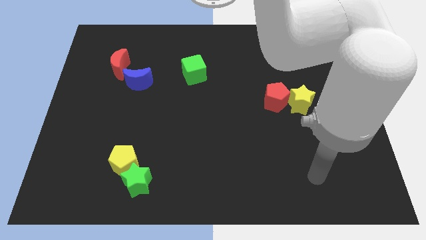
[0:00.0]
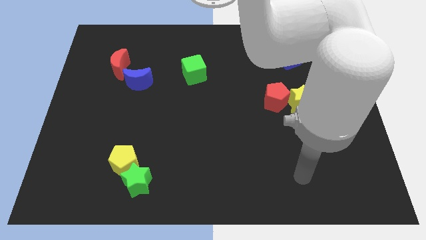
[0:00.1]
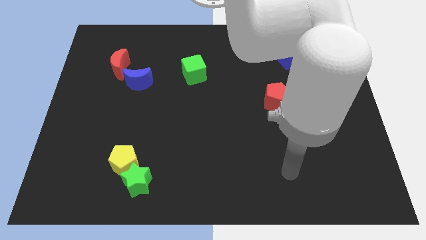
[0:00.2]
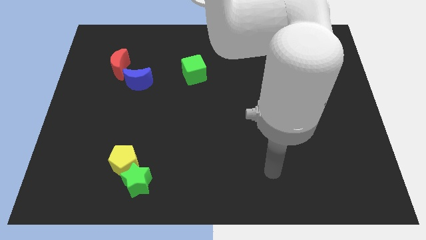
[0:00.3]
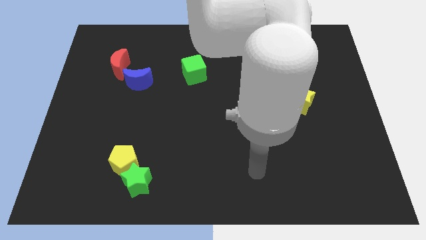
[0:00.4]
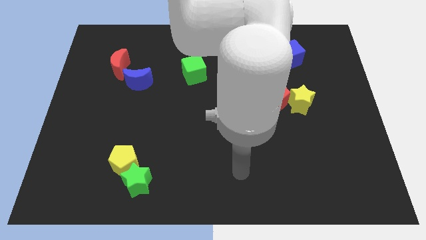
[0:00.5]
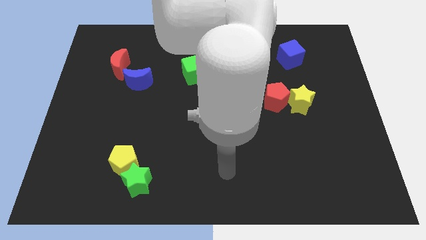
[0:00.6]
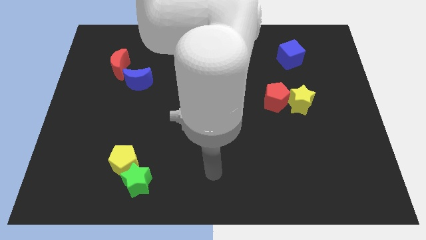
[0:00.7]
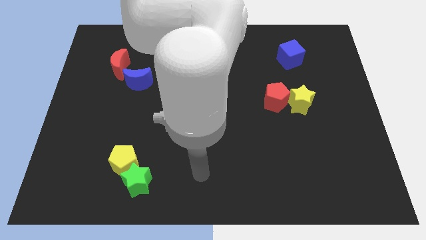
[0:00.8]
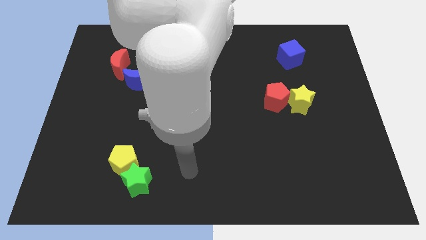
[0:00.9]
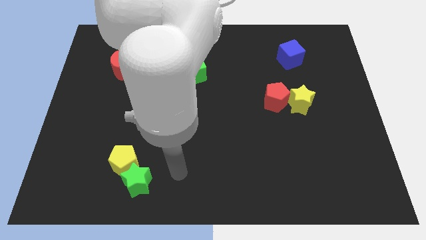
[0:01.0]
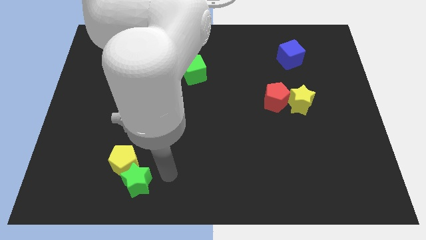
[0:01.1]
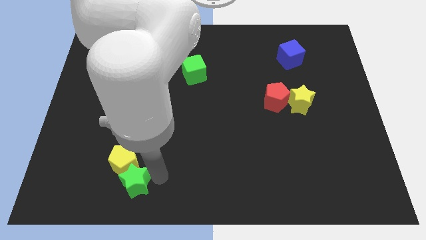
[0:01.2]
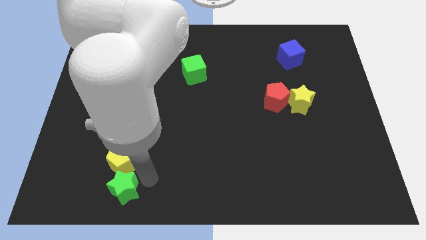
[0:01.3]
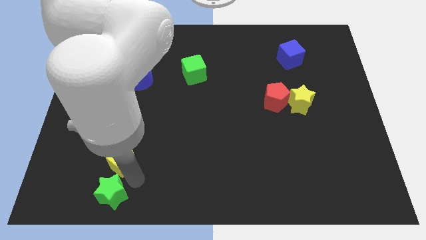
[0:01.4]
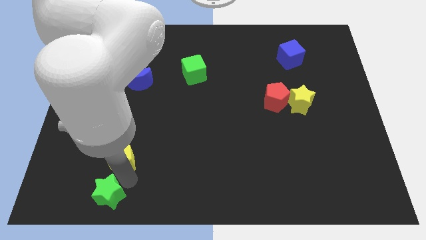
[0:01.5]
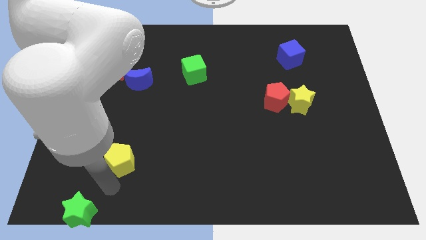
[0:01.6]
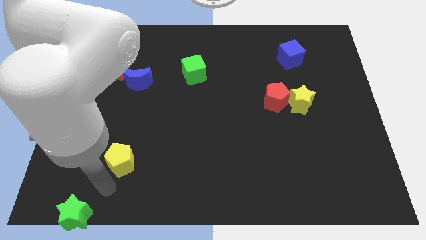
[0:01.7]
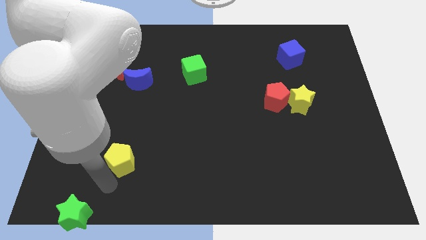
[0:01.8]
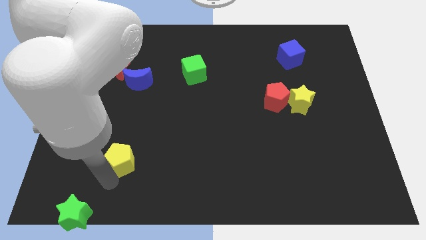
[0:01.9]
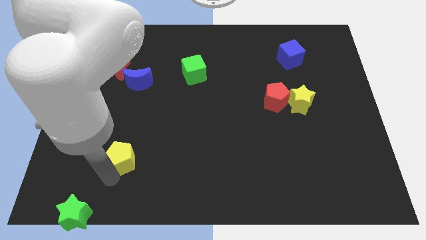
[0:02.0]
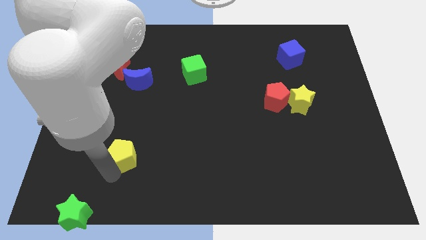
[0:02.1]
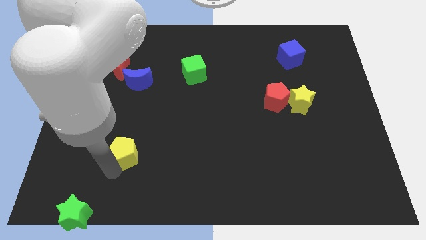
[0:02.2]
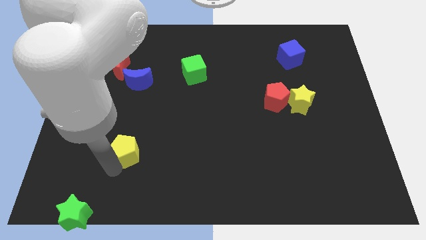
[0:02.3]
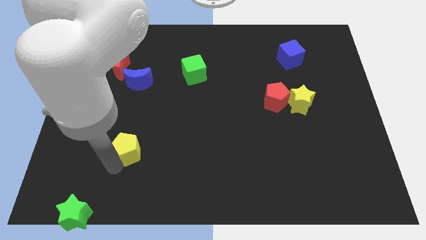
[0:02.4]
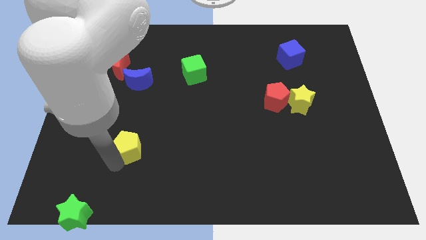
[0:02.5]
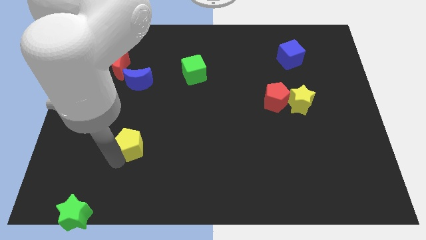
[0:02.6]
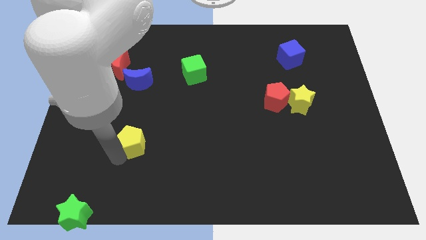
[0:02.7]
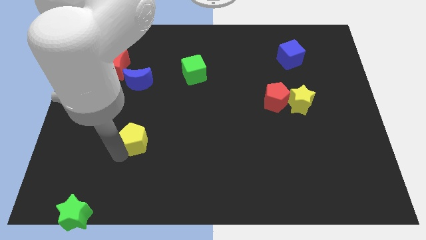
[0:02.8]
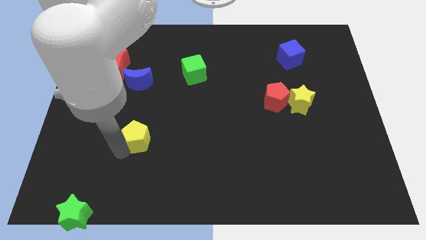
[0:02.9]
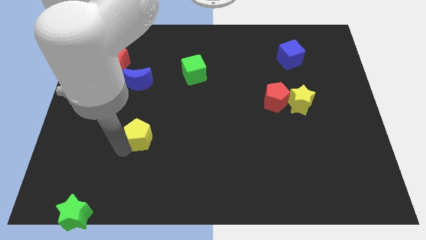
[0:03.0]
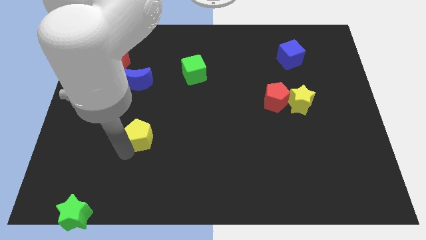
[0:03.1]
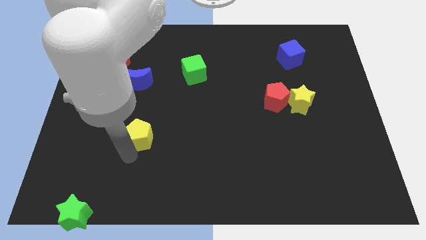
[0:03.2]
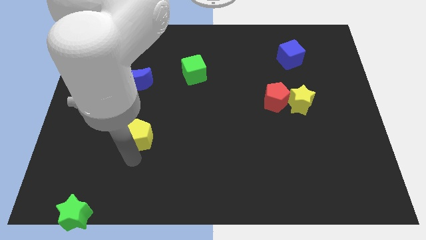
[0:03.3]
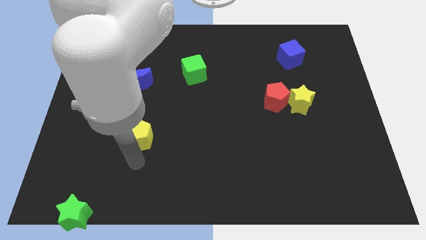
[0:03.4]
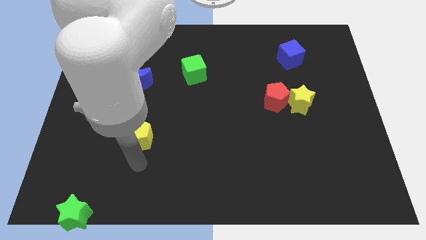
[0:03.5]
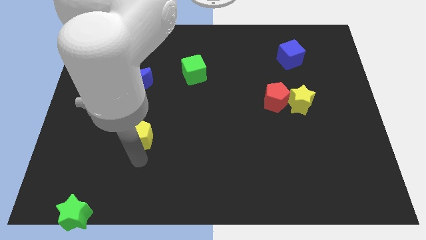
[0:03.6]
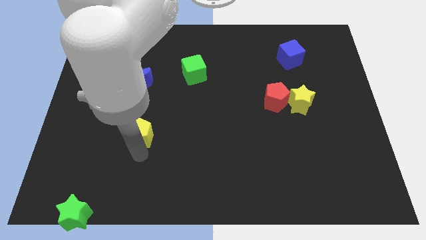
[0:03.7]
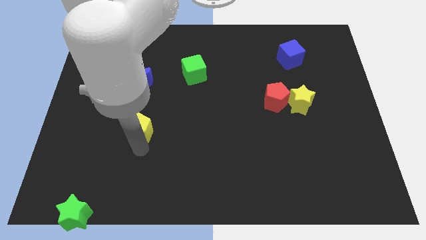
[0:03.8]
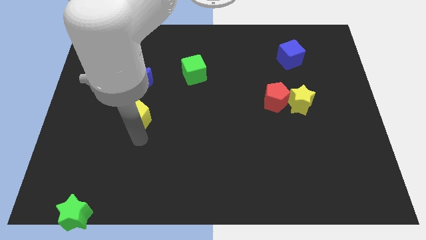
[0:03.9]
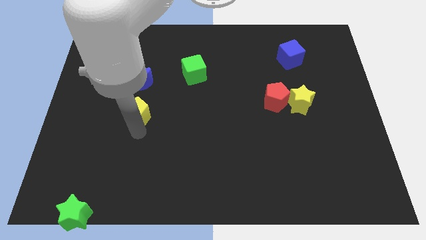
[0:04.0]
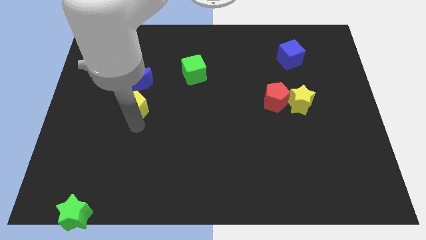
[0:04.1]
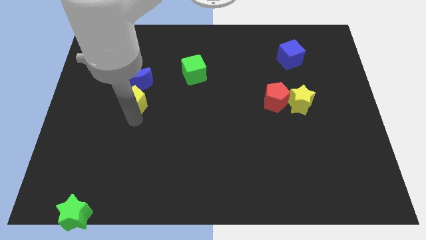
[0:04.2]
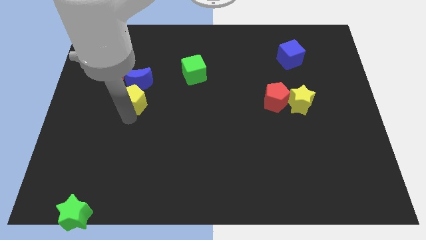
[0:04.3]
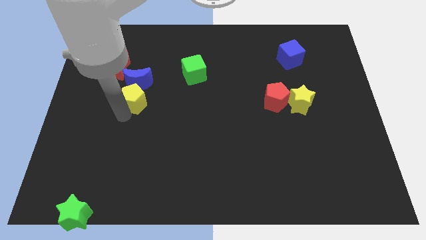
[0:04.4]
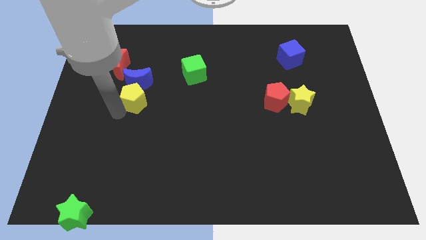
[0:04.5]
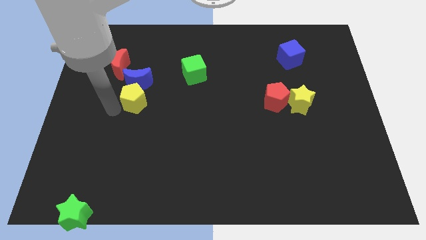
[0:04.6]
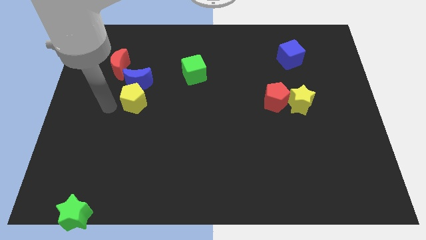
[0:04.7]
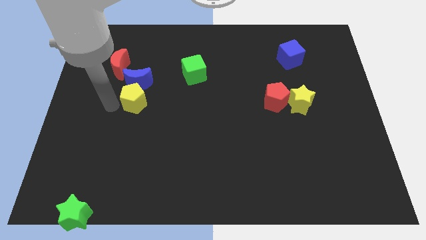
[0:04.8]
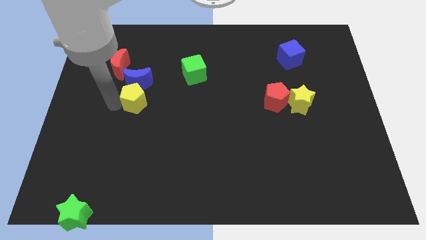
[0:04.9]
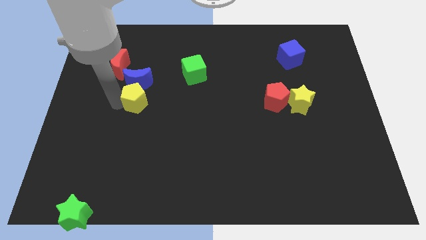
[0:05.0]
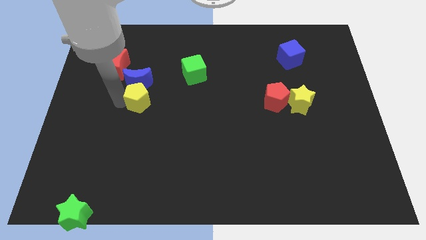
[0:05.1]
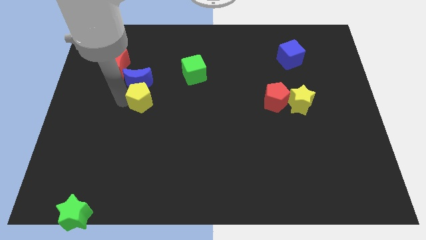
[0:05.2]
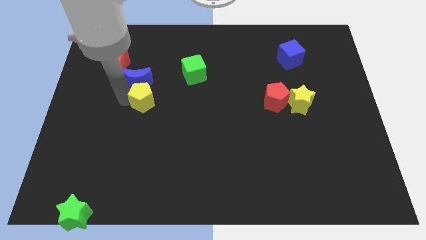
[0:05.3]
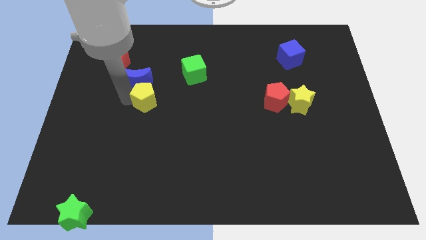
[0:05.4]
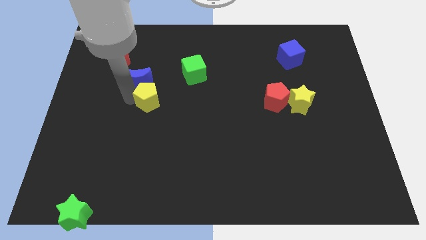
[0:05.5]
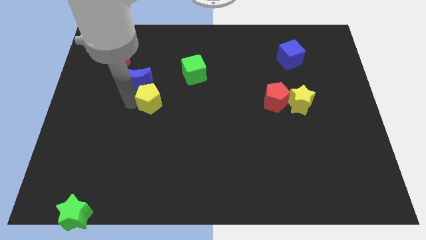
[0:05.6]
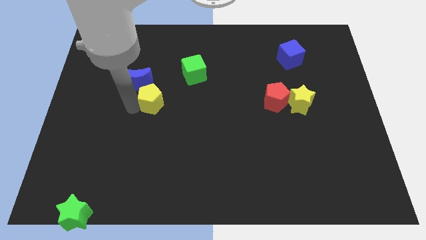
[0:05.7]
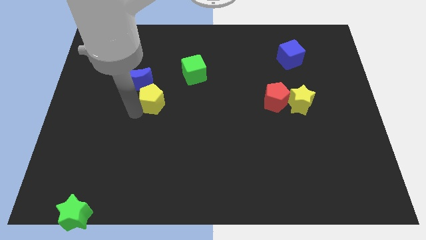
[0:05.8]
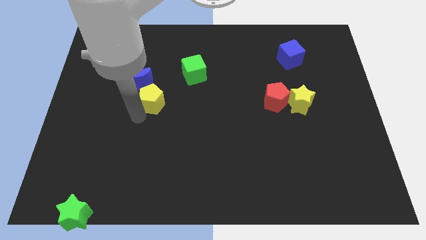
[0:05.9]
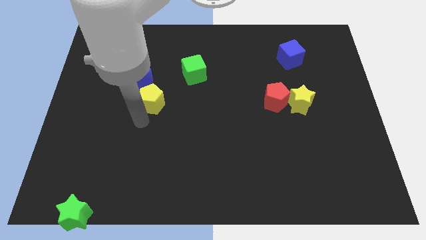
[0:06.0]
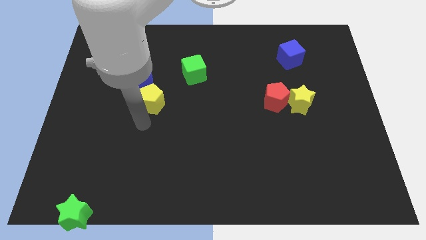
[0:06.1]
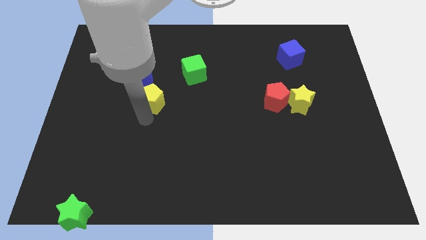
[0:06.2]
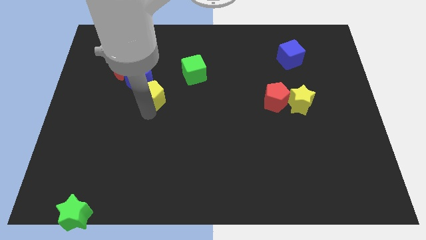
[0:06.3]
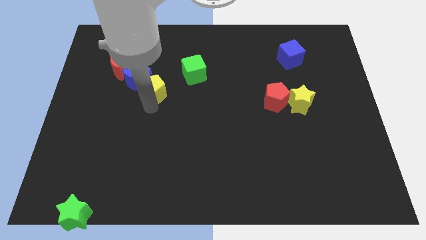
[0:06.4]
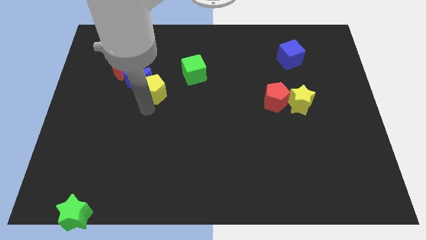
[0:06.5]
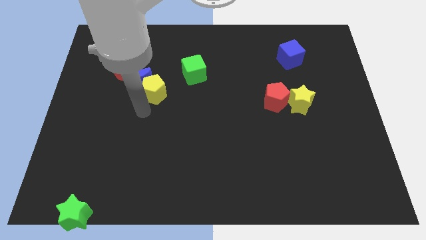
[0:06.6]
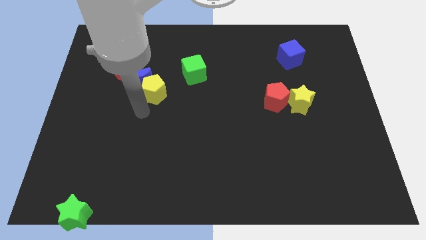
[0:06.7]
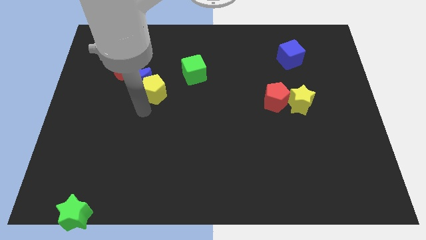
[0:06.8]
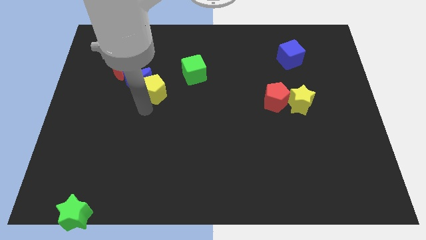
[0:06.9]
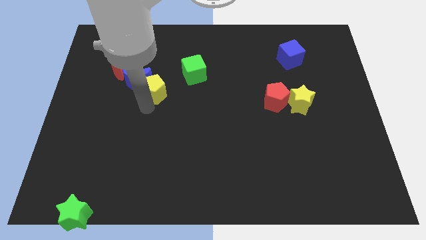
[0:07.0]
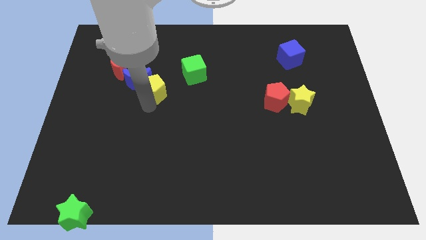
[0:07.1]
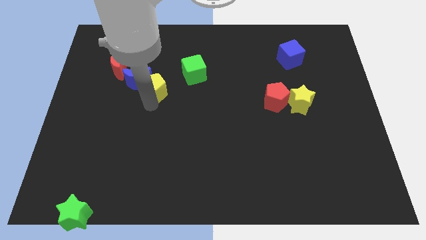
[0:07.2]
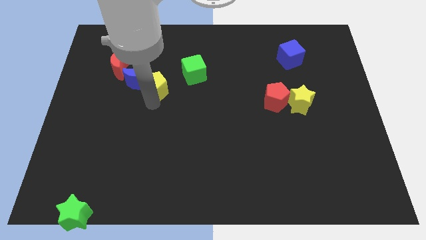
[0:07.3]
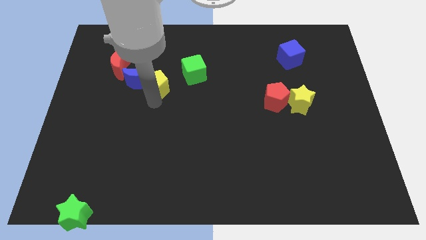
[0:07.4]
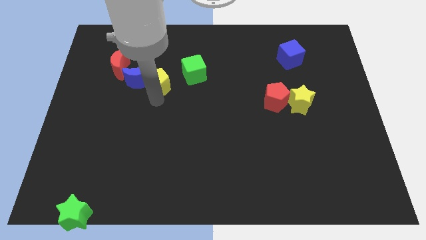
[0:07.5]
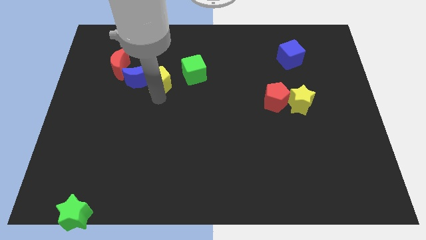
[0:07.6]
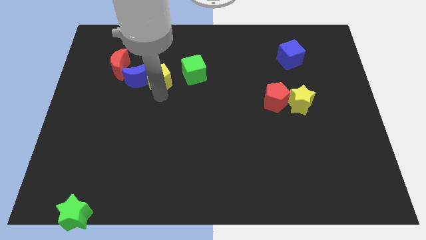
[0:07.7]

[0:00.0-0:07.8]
push the yellow pentagon right of the red moon
